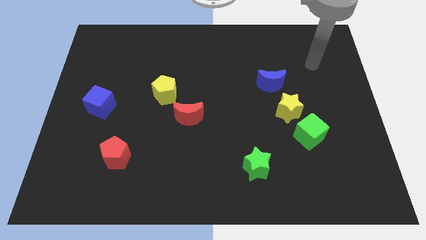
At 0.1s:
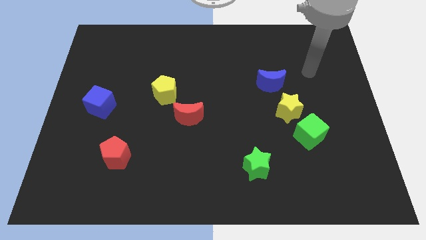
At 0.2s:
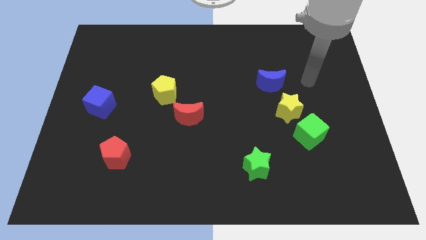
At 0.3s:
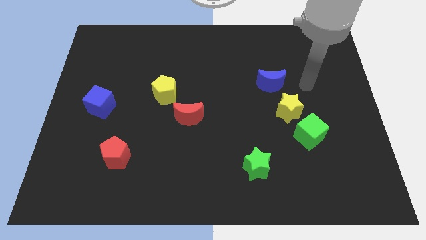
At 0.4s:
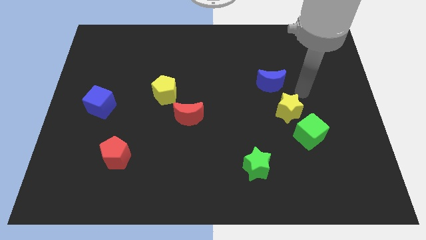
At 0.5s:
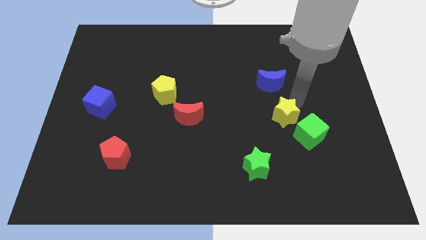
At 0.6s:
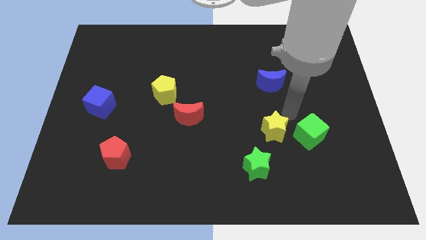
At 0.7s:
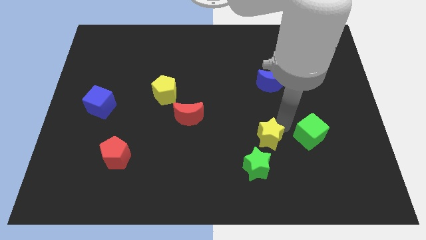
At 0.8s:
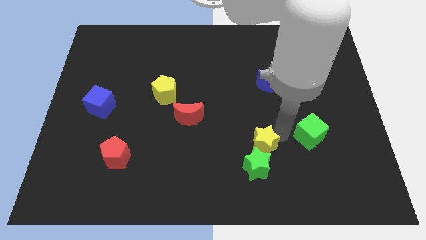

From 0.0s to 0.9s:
pull the green cube apart from the yellow star

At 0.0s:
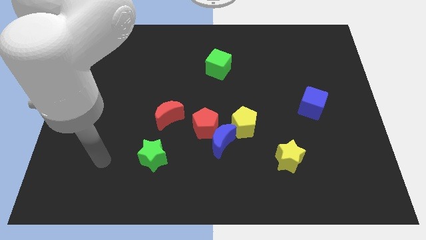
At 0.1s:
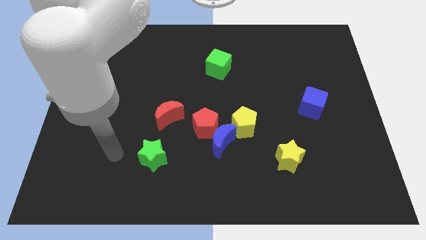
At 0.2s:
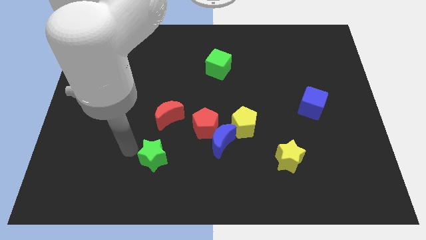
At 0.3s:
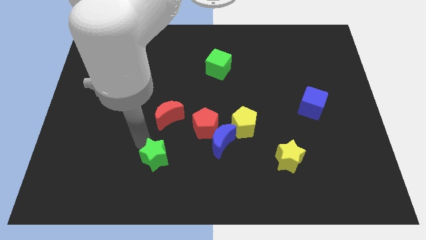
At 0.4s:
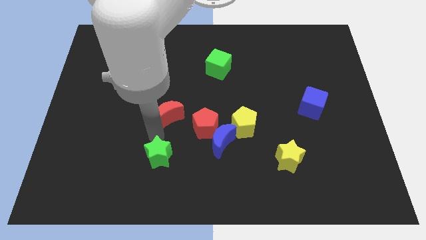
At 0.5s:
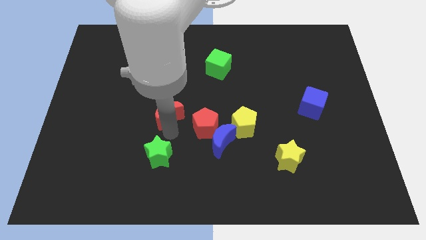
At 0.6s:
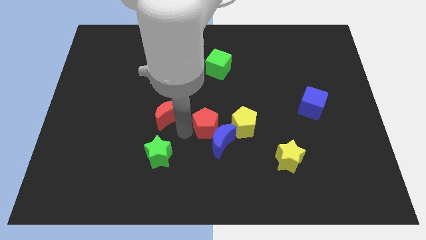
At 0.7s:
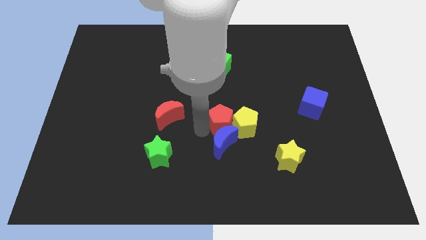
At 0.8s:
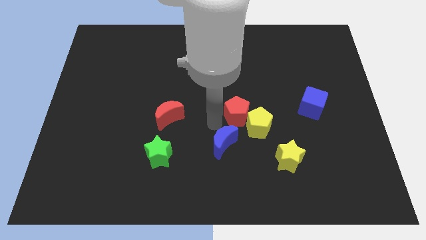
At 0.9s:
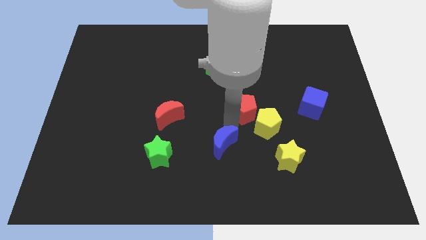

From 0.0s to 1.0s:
move the blue moon away from the red pentagon and yellow pentagon

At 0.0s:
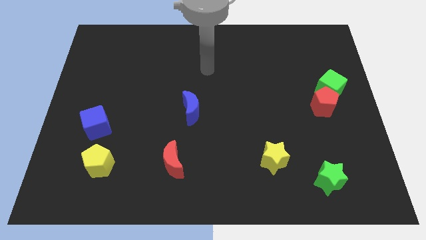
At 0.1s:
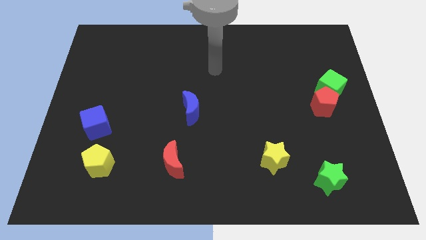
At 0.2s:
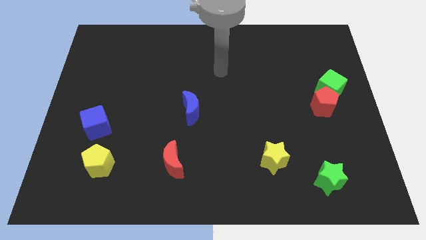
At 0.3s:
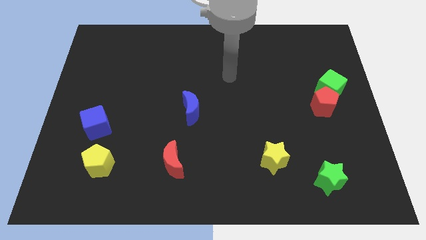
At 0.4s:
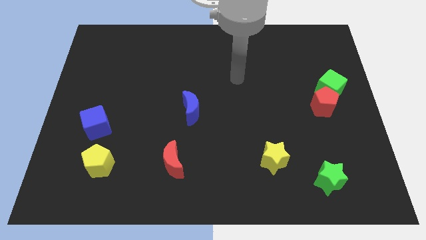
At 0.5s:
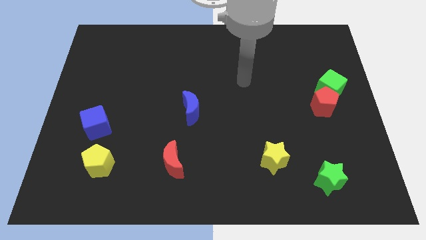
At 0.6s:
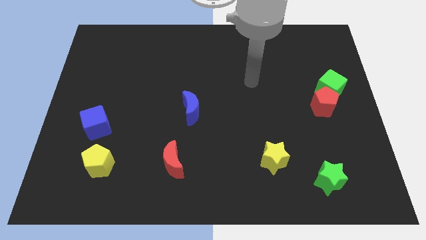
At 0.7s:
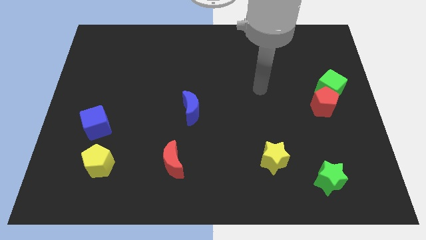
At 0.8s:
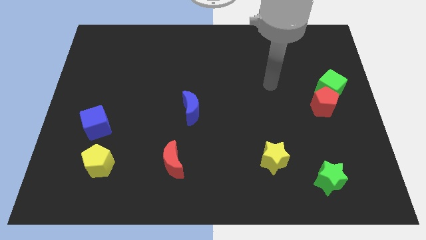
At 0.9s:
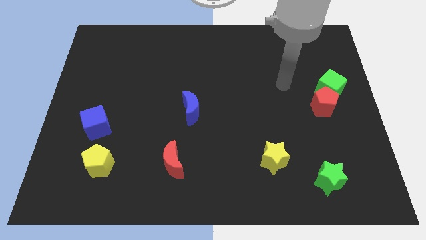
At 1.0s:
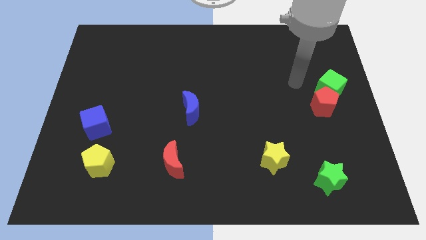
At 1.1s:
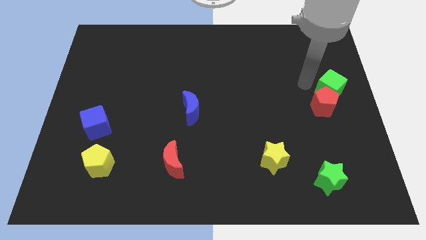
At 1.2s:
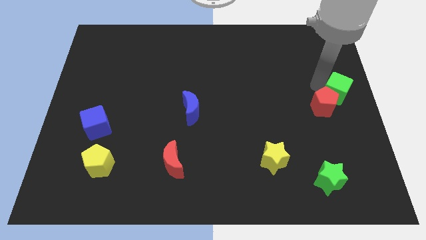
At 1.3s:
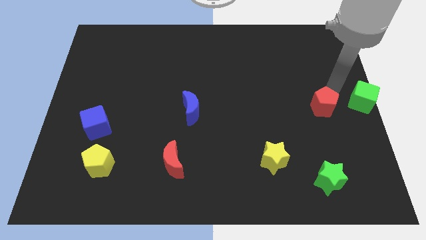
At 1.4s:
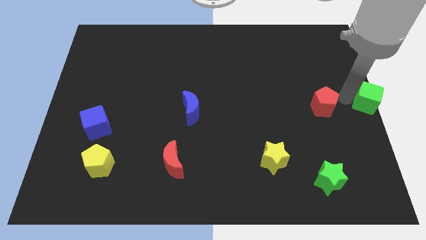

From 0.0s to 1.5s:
pull the red pentagon apart from the green cube

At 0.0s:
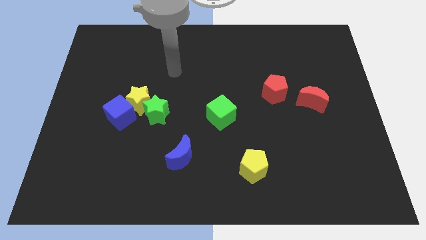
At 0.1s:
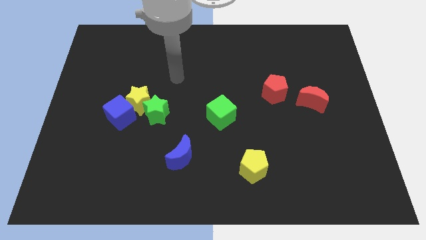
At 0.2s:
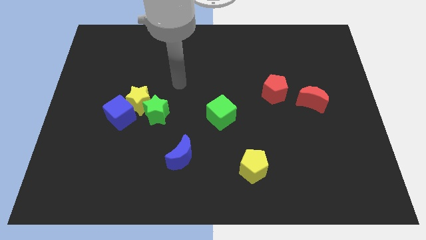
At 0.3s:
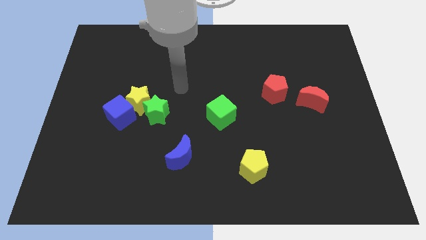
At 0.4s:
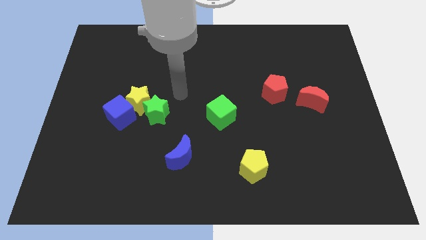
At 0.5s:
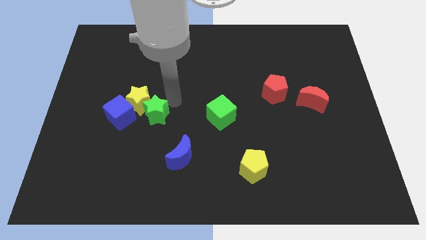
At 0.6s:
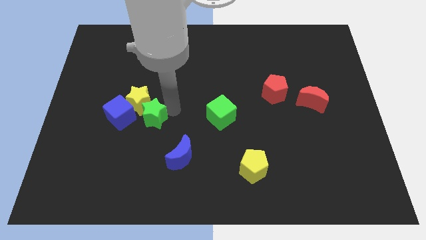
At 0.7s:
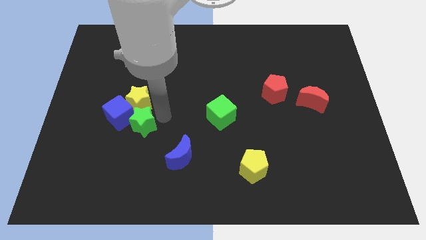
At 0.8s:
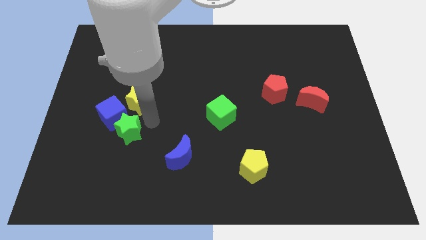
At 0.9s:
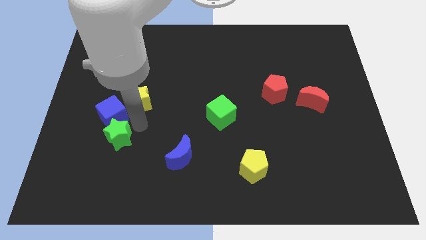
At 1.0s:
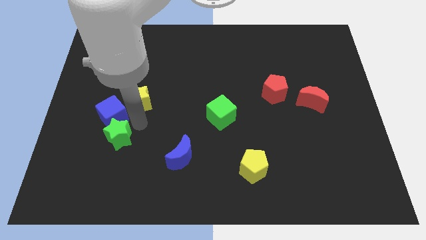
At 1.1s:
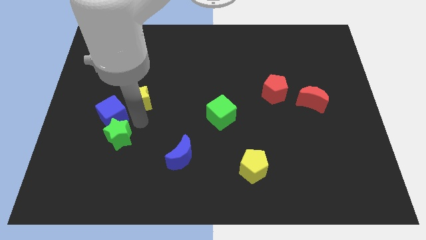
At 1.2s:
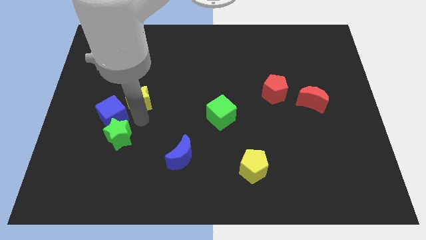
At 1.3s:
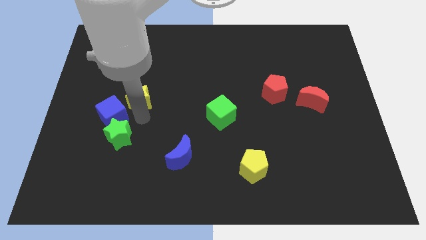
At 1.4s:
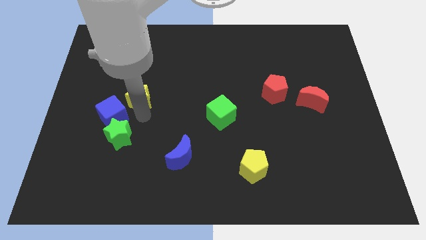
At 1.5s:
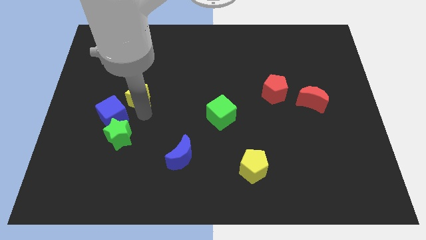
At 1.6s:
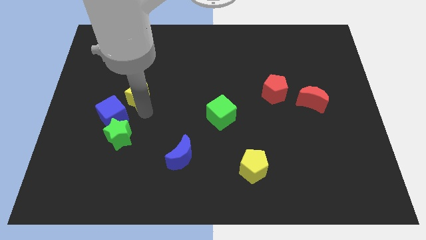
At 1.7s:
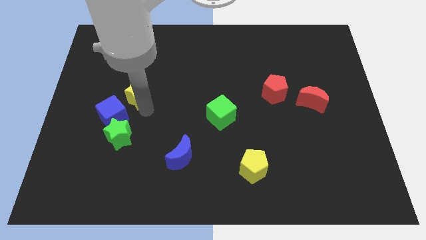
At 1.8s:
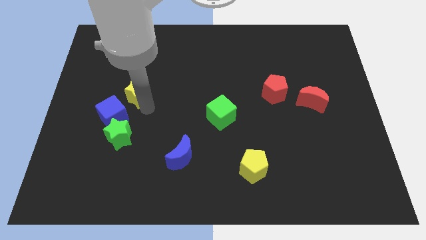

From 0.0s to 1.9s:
pull the yellow star apart from the green star and blue cube

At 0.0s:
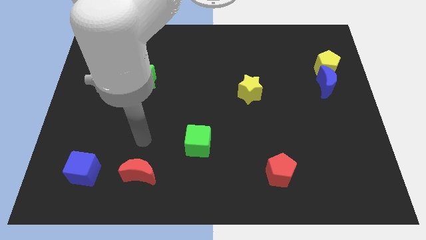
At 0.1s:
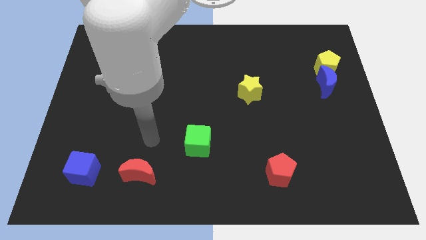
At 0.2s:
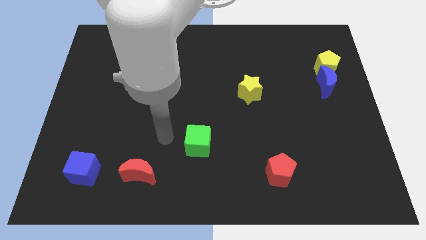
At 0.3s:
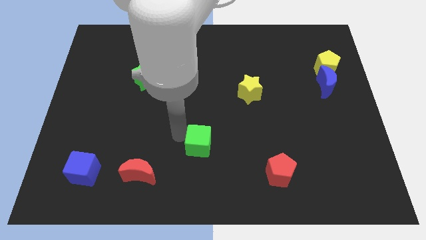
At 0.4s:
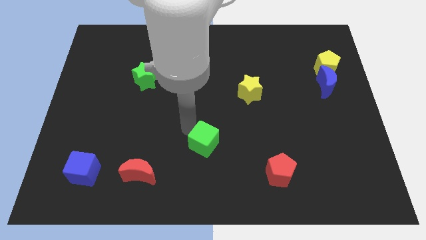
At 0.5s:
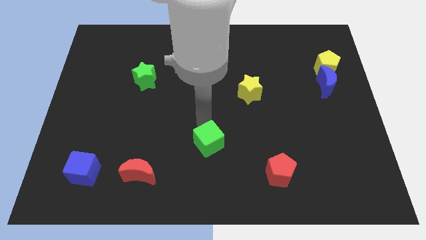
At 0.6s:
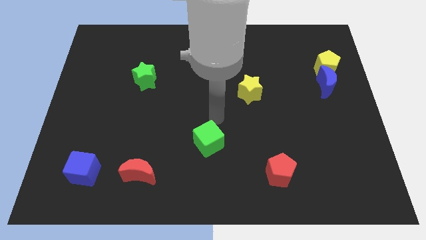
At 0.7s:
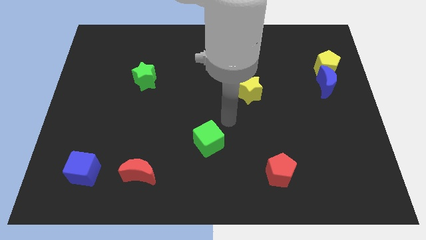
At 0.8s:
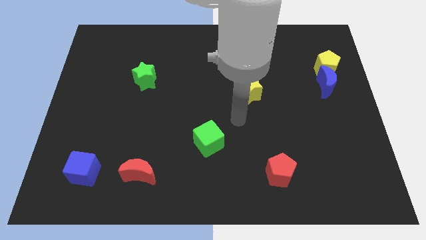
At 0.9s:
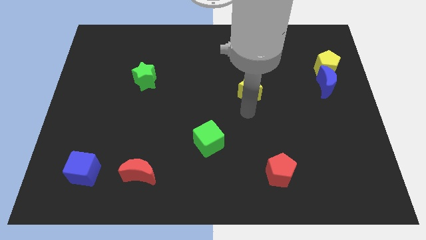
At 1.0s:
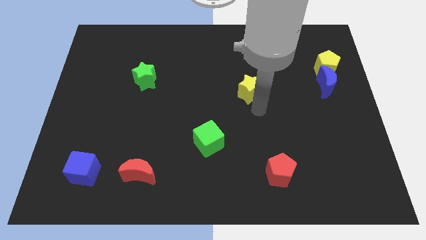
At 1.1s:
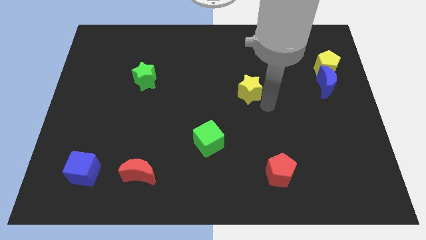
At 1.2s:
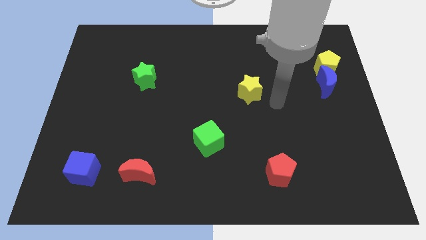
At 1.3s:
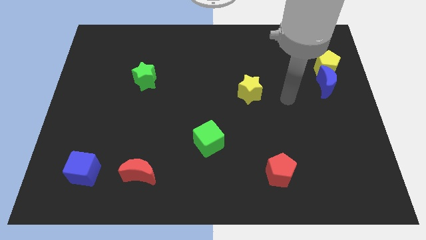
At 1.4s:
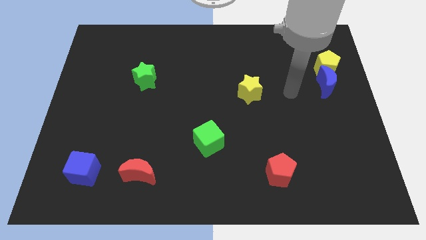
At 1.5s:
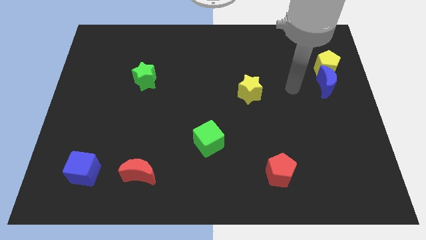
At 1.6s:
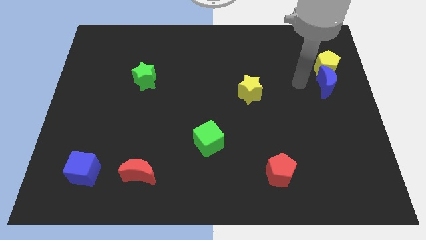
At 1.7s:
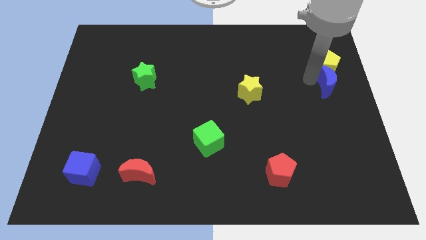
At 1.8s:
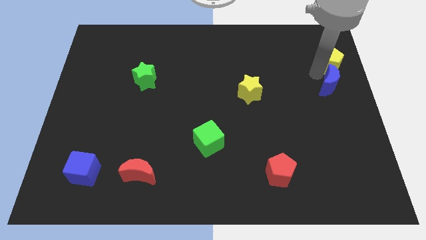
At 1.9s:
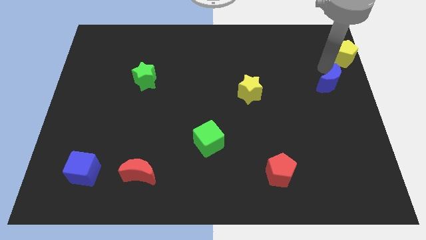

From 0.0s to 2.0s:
move the blue moon away from the yellow pentagon

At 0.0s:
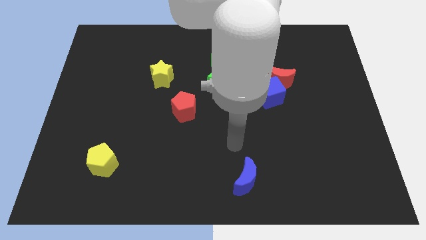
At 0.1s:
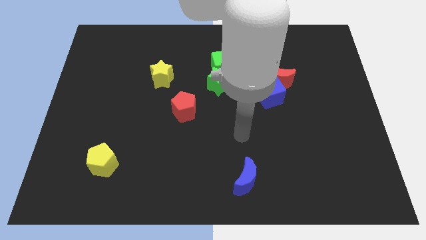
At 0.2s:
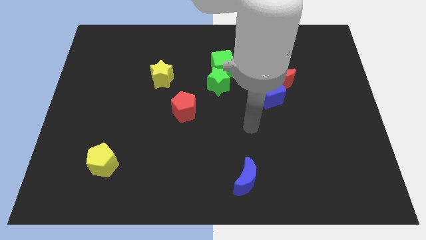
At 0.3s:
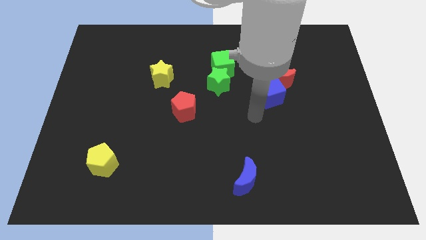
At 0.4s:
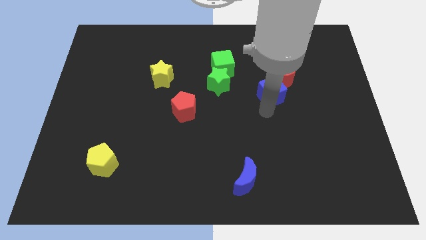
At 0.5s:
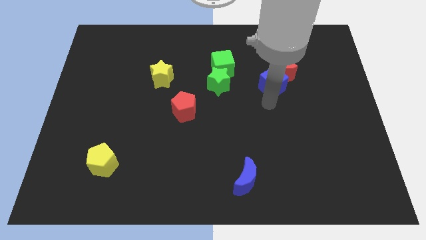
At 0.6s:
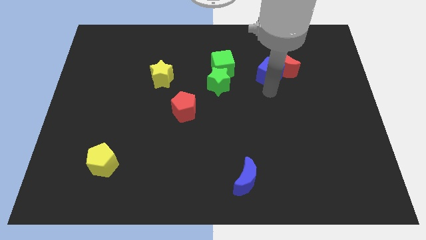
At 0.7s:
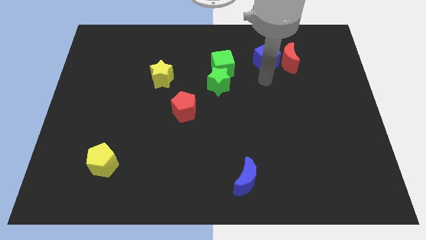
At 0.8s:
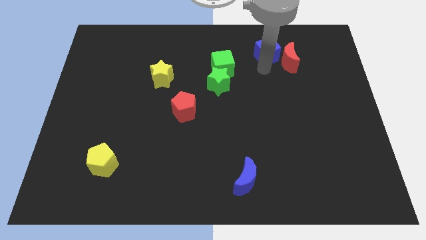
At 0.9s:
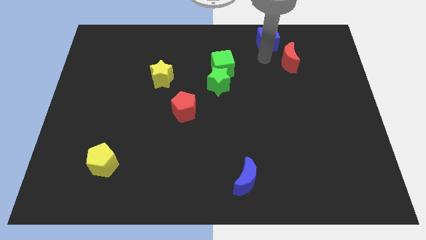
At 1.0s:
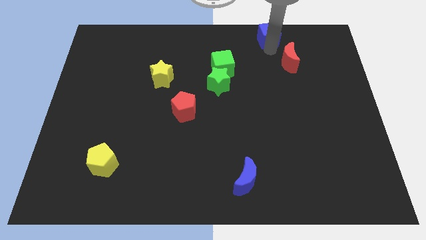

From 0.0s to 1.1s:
separate the red moon from the blue cube

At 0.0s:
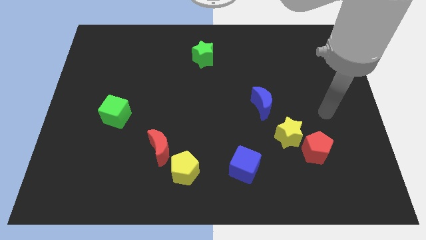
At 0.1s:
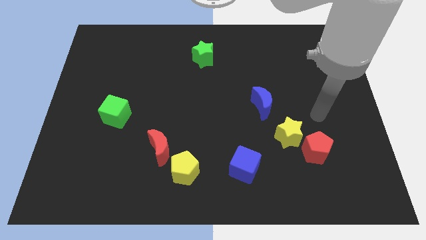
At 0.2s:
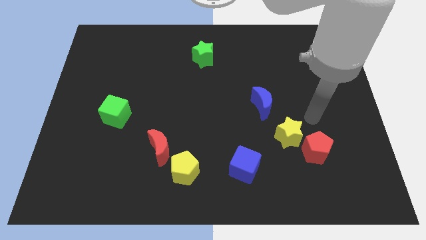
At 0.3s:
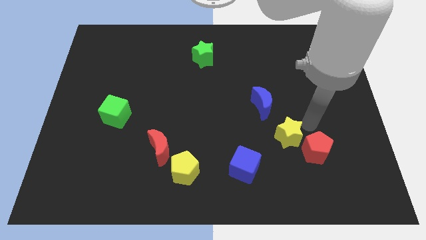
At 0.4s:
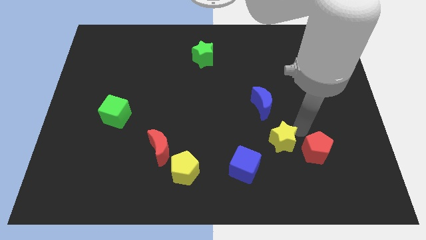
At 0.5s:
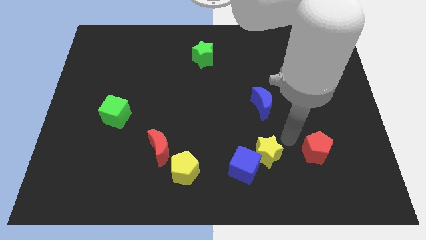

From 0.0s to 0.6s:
separate the red pentagon from the yellow star

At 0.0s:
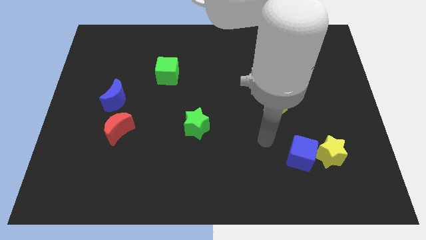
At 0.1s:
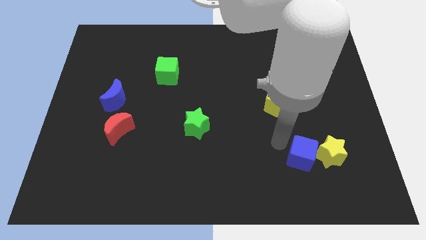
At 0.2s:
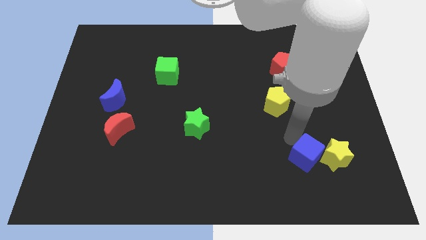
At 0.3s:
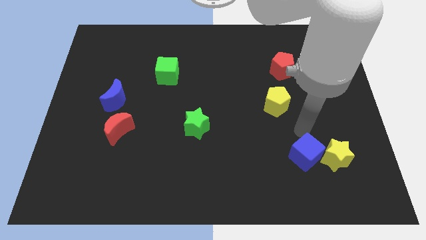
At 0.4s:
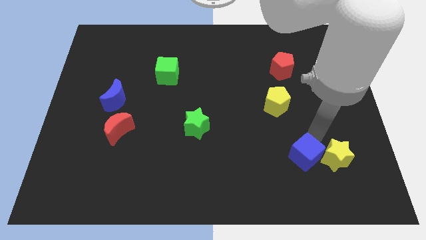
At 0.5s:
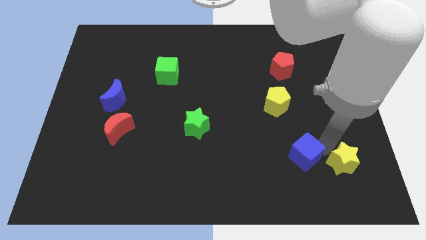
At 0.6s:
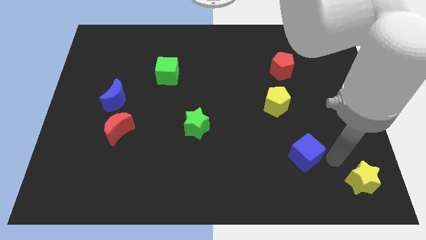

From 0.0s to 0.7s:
move the blue cube away from the yellow star
